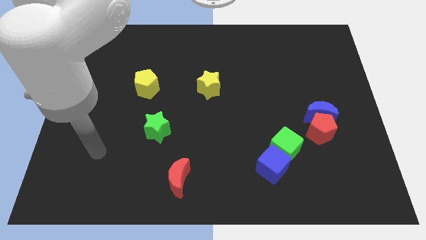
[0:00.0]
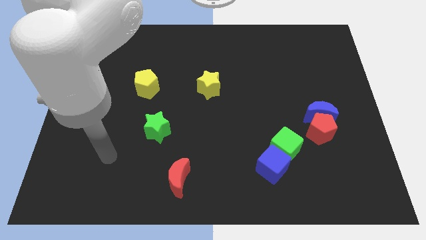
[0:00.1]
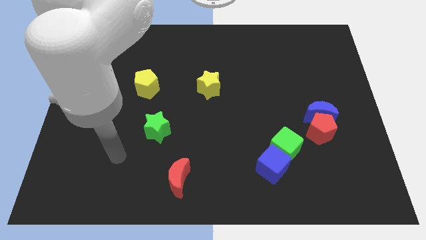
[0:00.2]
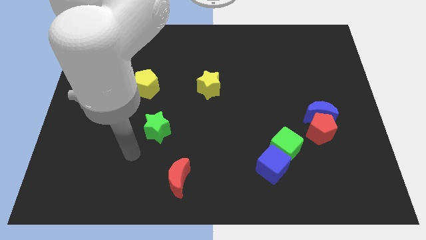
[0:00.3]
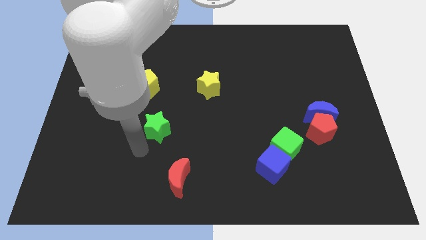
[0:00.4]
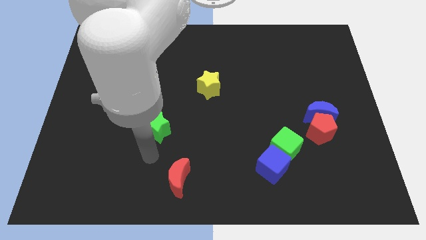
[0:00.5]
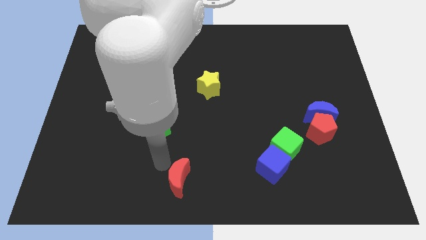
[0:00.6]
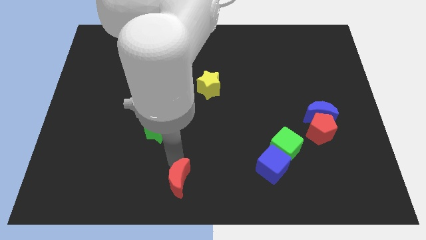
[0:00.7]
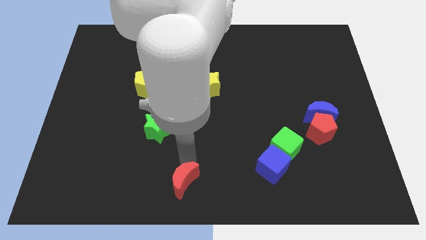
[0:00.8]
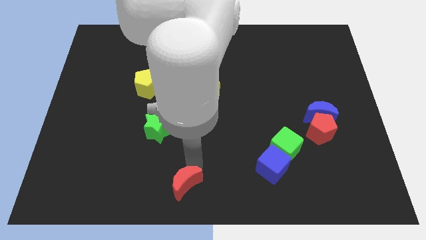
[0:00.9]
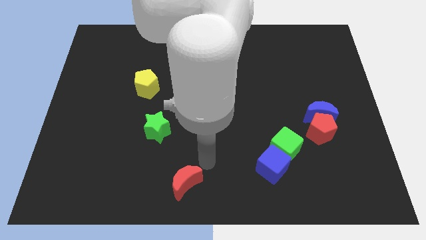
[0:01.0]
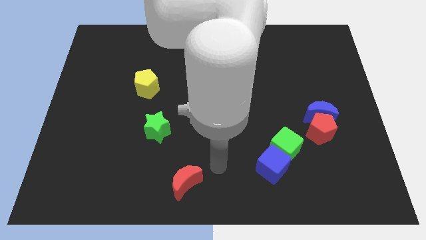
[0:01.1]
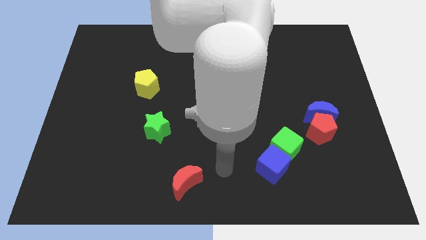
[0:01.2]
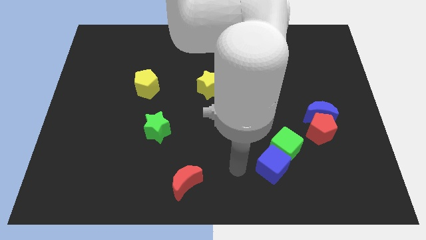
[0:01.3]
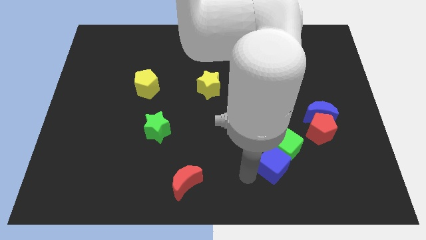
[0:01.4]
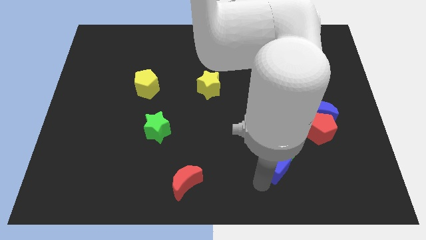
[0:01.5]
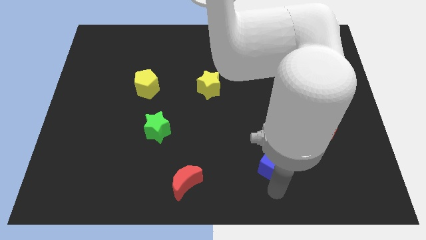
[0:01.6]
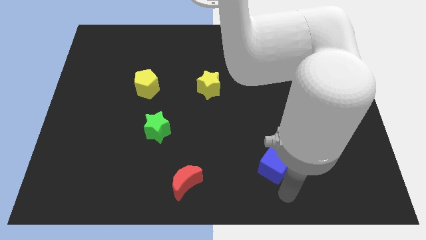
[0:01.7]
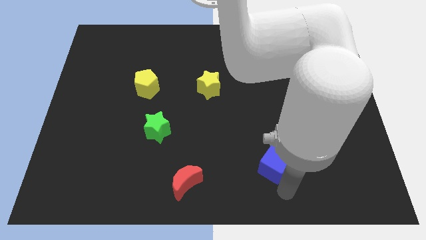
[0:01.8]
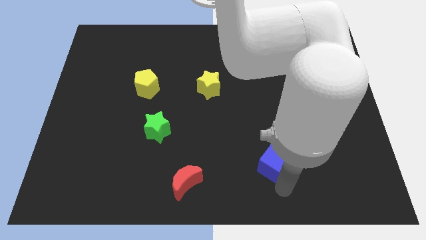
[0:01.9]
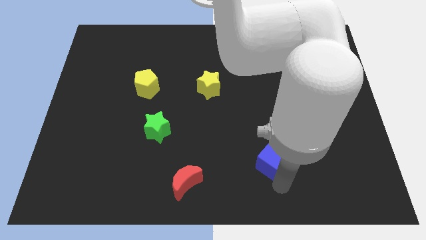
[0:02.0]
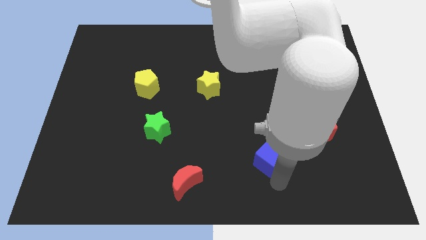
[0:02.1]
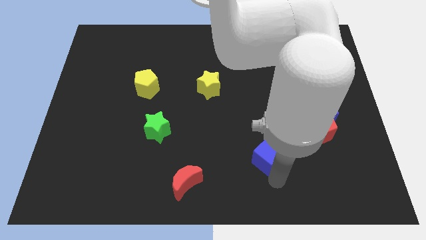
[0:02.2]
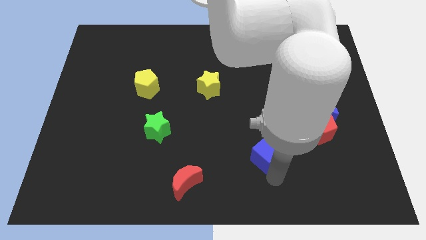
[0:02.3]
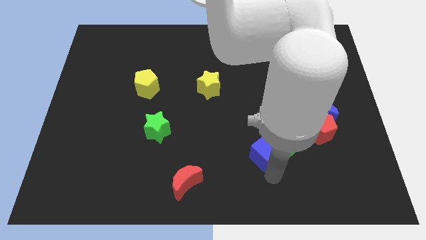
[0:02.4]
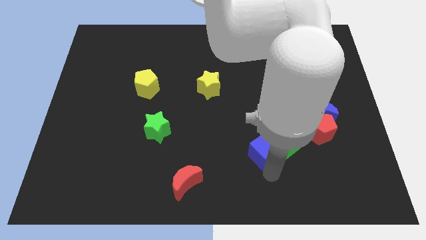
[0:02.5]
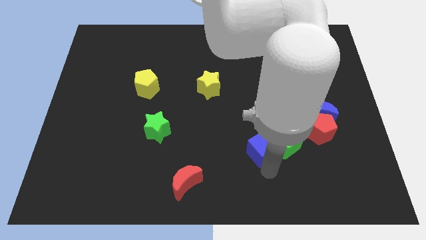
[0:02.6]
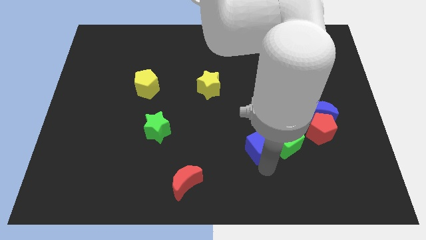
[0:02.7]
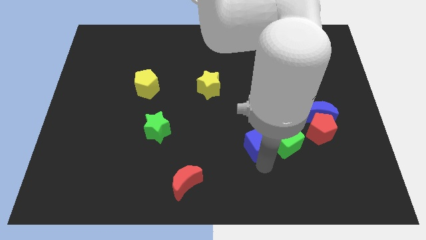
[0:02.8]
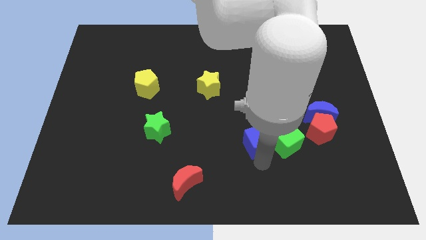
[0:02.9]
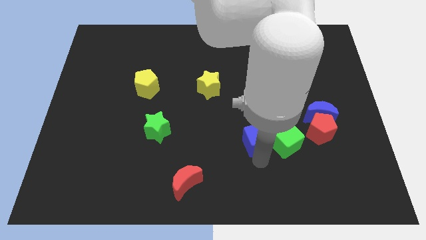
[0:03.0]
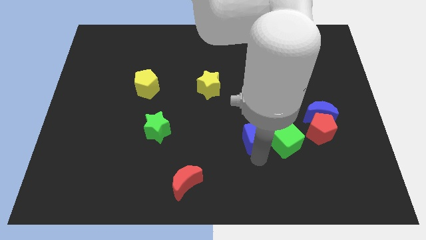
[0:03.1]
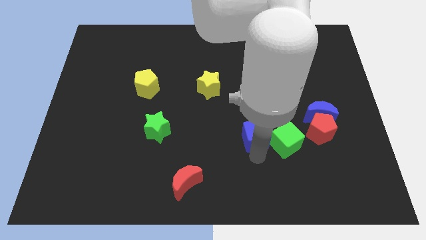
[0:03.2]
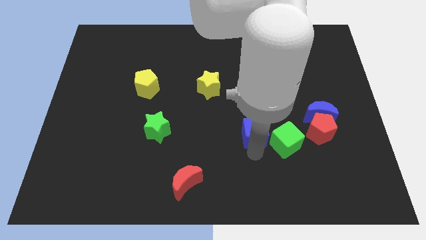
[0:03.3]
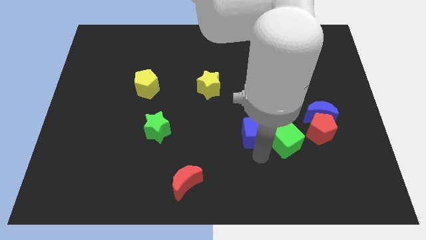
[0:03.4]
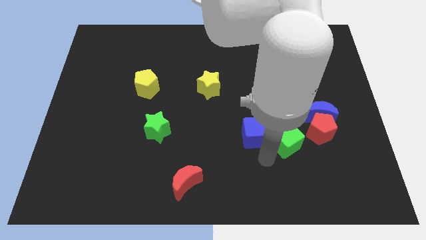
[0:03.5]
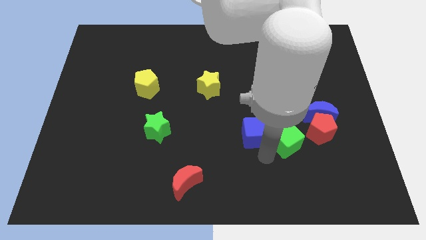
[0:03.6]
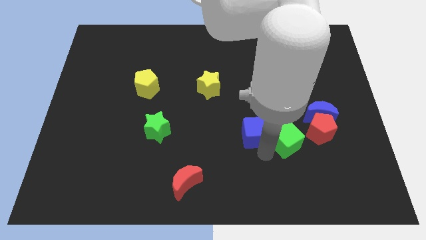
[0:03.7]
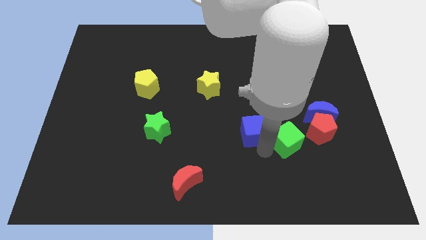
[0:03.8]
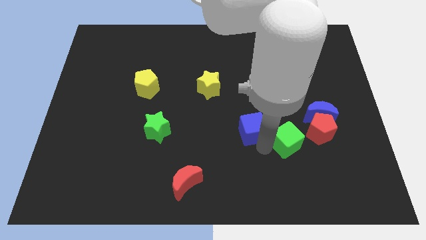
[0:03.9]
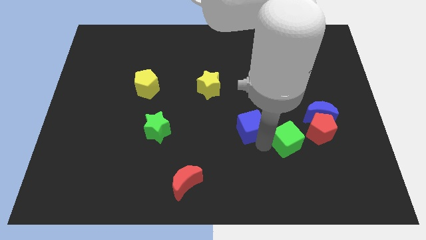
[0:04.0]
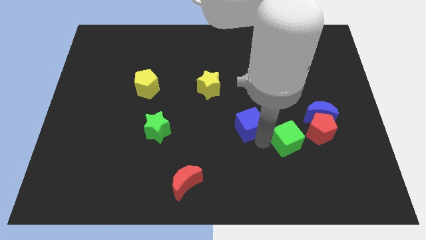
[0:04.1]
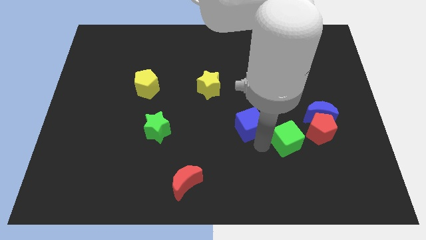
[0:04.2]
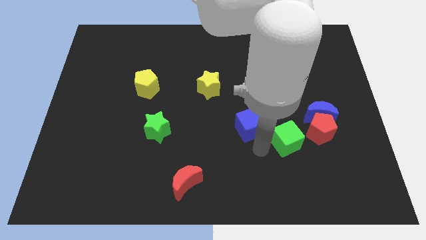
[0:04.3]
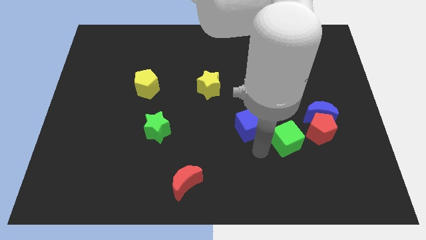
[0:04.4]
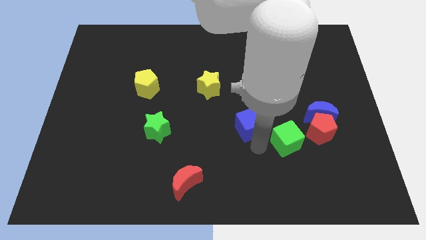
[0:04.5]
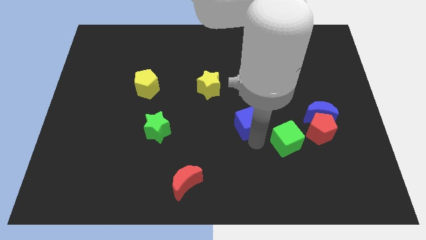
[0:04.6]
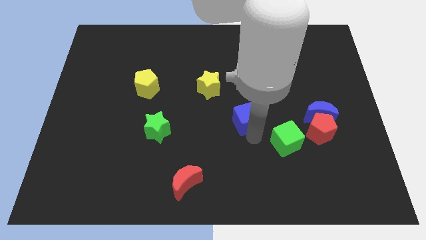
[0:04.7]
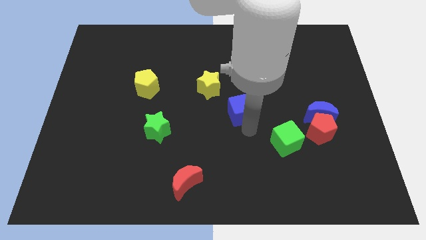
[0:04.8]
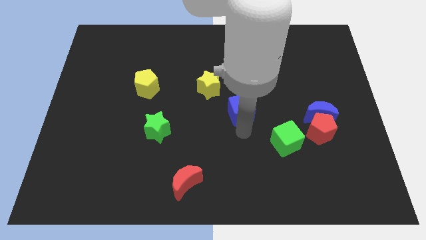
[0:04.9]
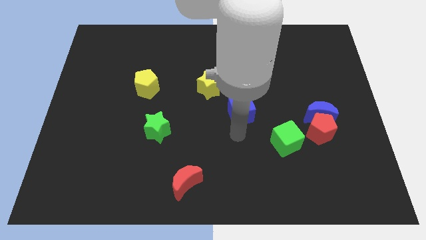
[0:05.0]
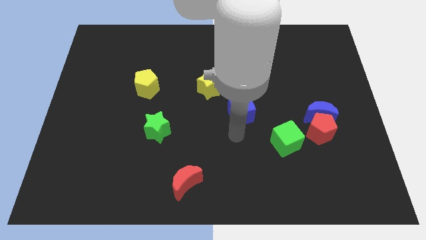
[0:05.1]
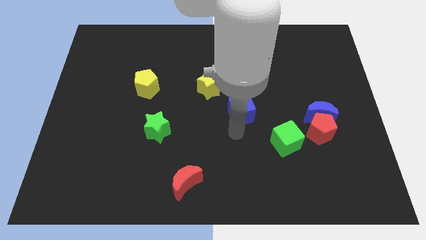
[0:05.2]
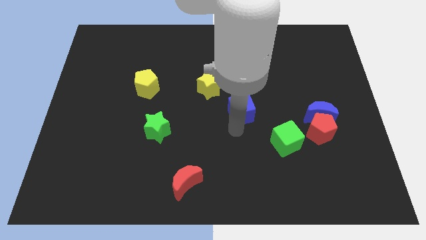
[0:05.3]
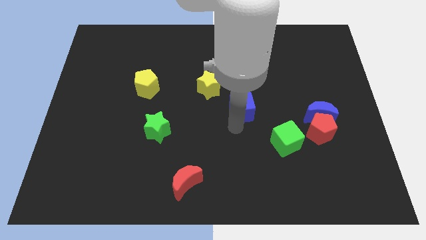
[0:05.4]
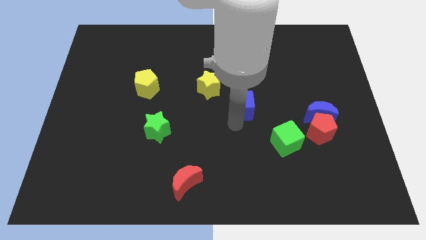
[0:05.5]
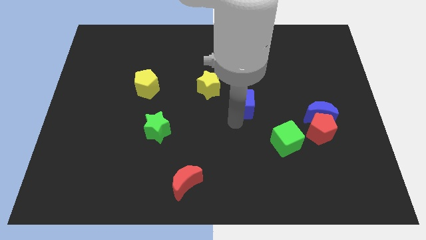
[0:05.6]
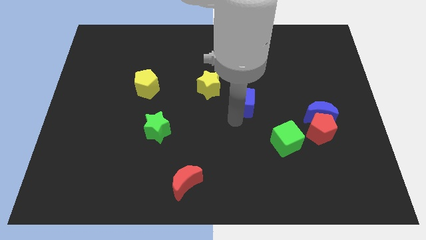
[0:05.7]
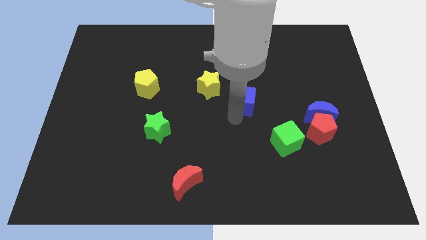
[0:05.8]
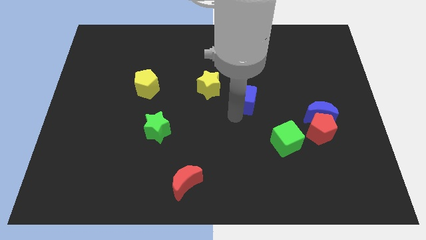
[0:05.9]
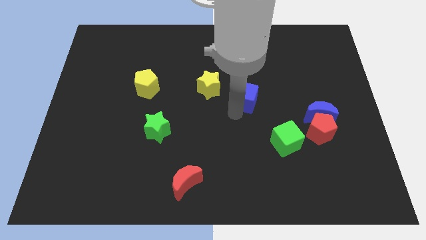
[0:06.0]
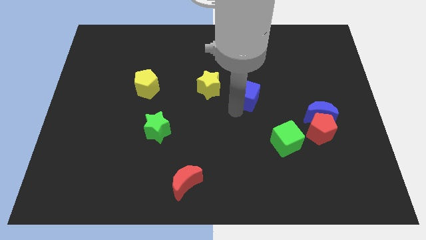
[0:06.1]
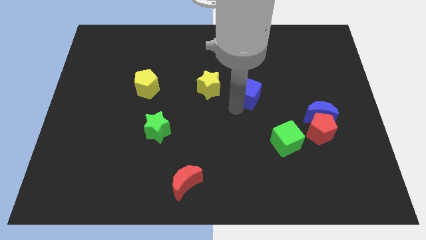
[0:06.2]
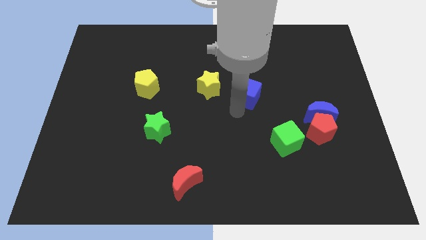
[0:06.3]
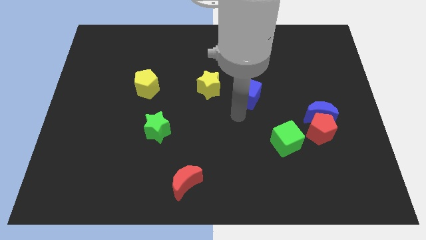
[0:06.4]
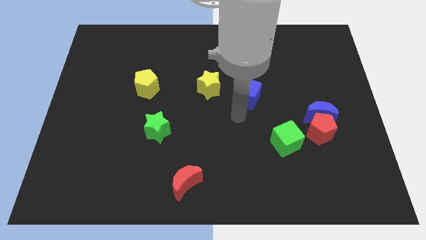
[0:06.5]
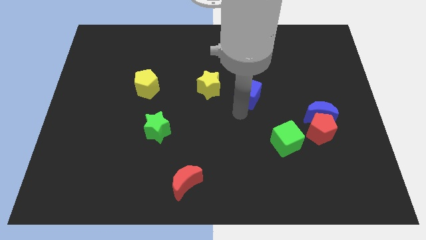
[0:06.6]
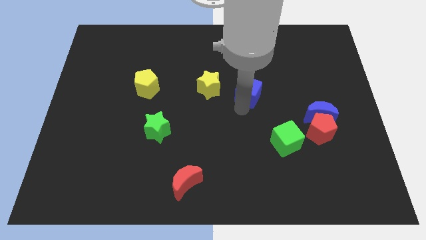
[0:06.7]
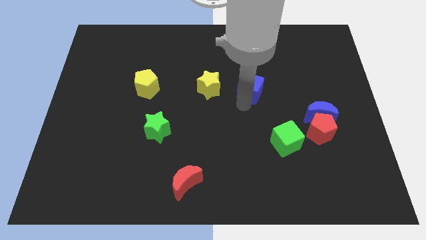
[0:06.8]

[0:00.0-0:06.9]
push the blue cube upwards

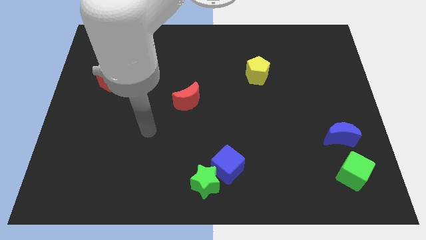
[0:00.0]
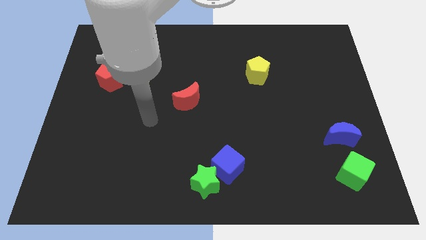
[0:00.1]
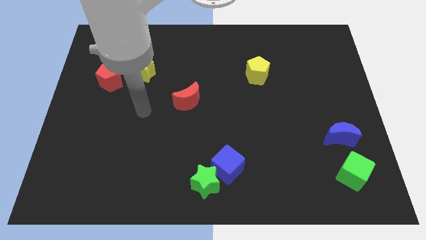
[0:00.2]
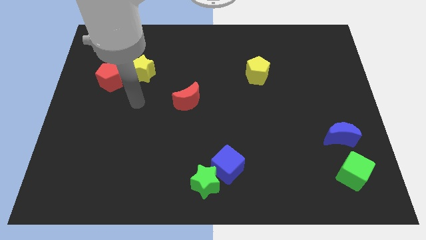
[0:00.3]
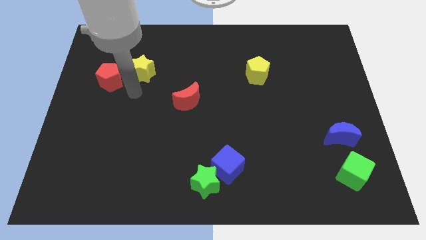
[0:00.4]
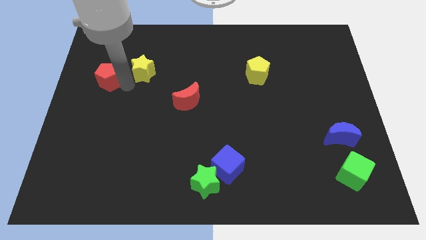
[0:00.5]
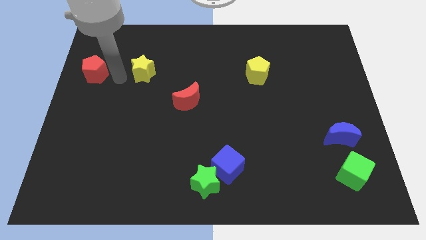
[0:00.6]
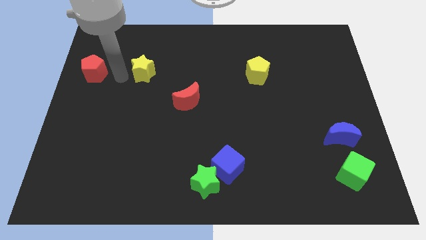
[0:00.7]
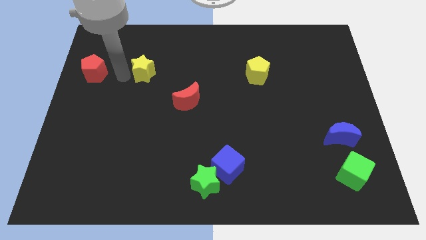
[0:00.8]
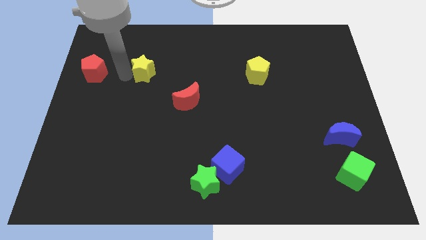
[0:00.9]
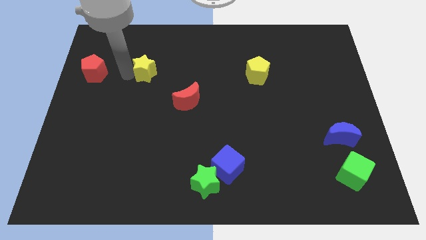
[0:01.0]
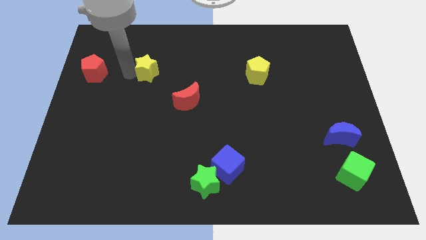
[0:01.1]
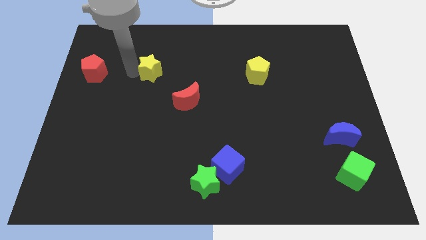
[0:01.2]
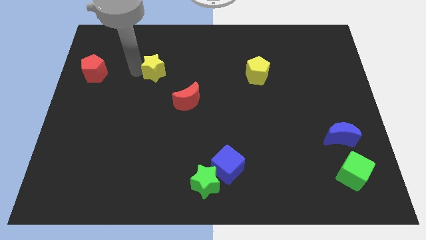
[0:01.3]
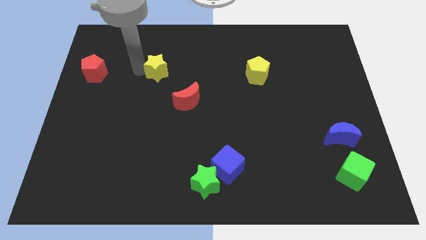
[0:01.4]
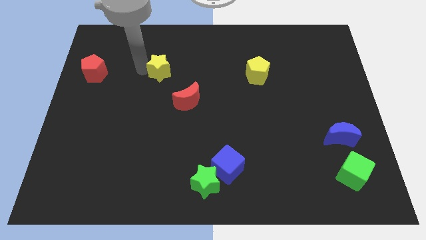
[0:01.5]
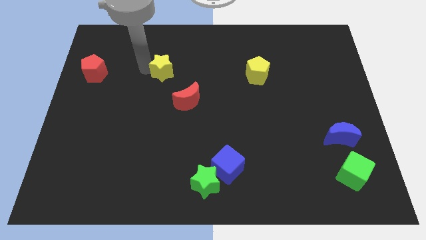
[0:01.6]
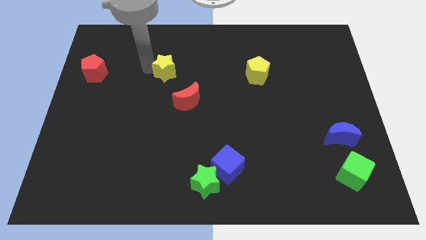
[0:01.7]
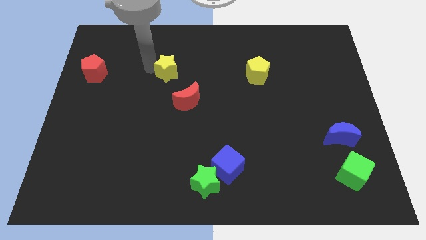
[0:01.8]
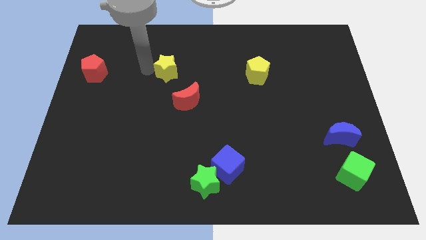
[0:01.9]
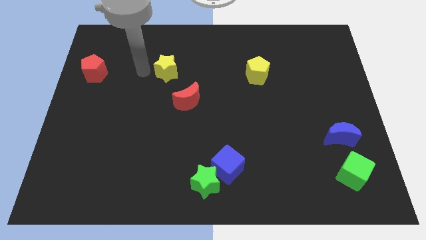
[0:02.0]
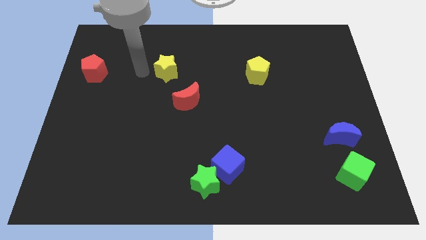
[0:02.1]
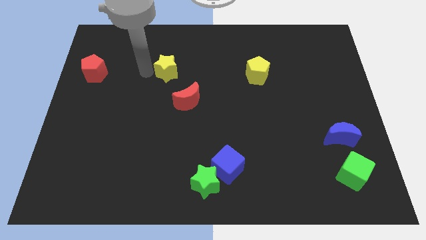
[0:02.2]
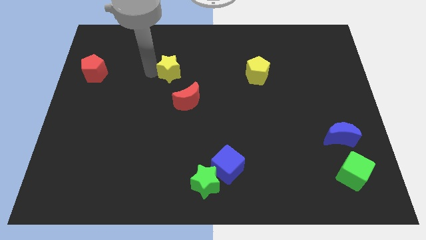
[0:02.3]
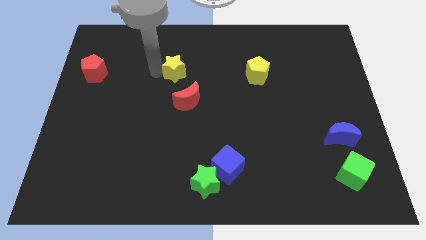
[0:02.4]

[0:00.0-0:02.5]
slightly slide the yellow star to the right
